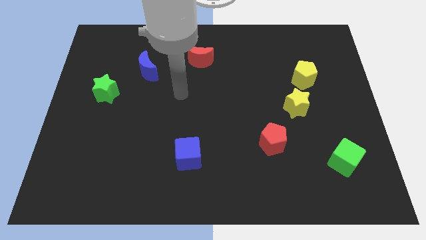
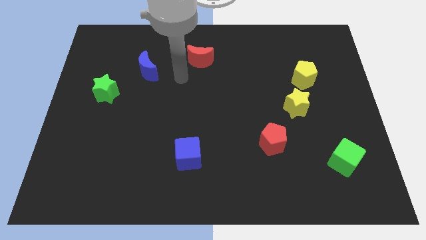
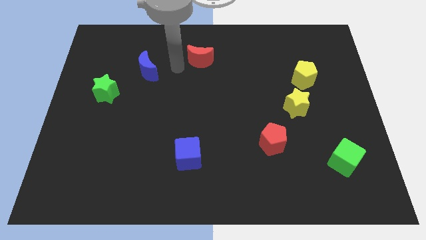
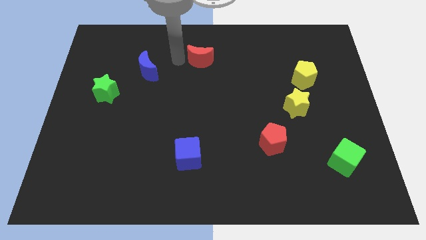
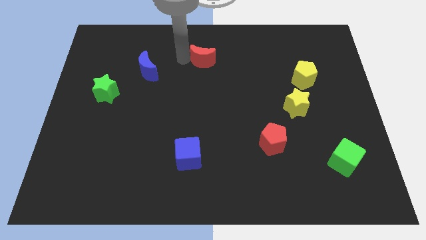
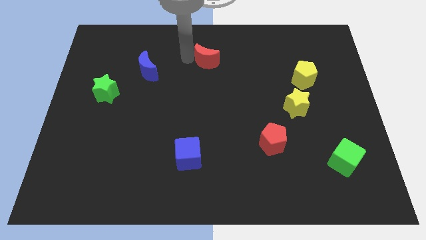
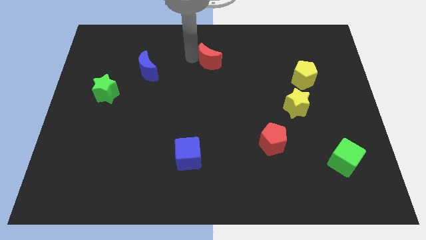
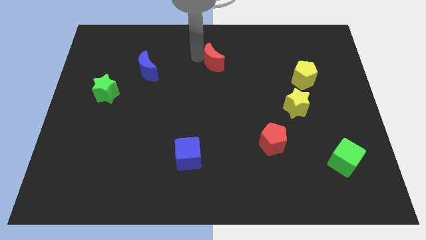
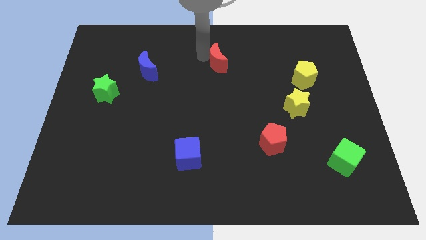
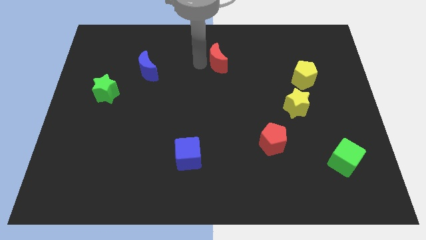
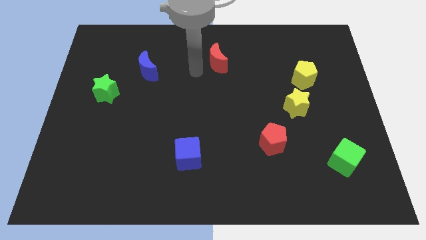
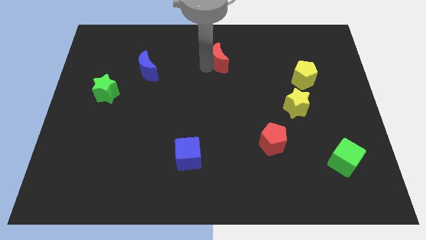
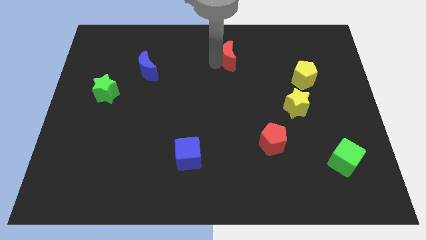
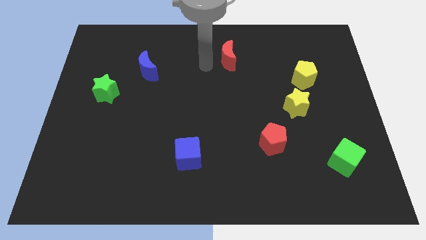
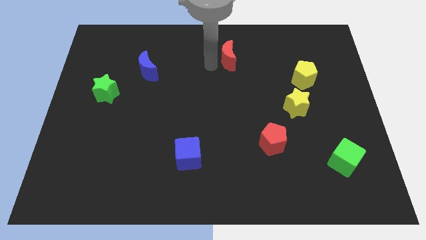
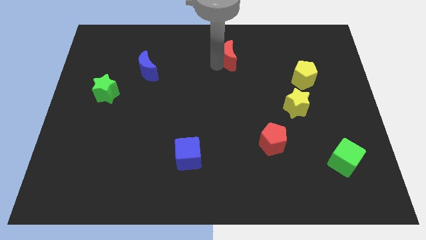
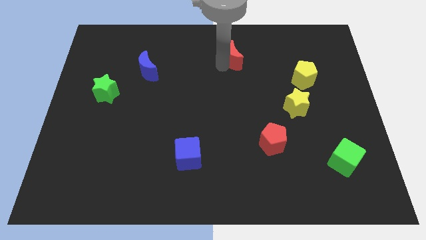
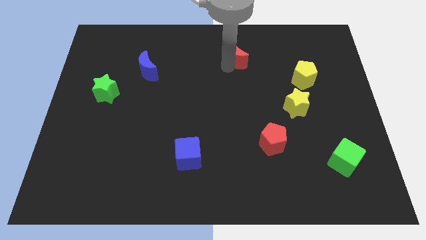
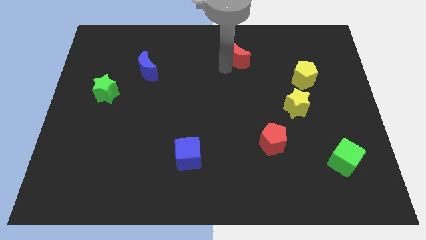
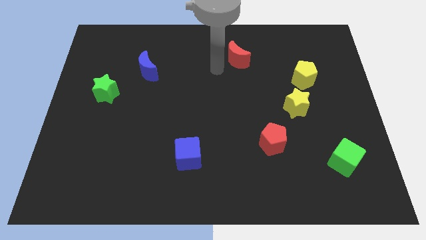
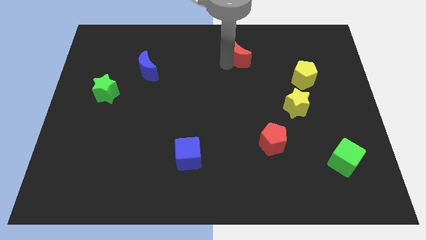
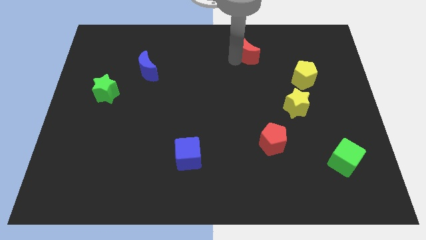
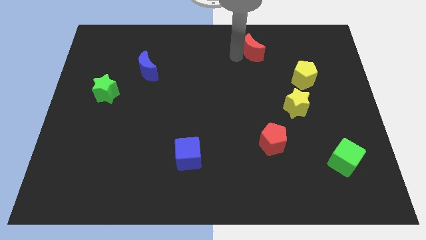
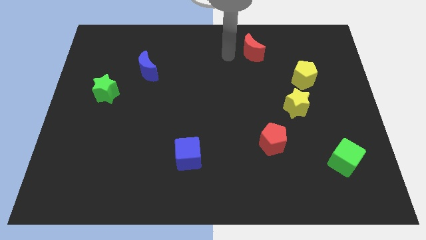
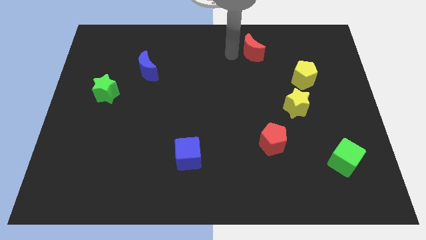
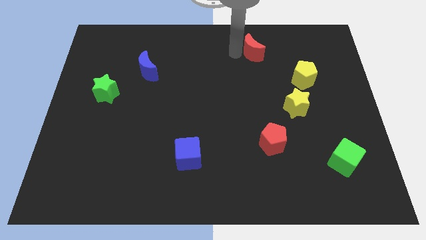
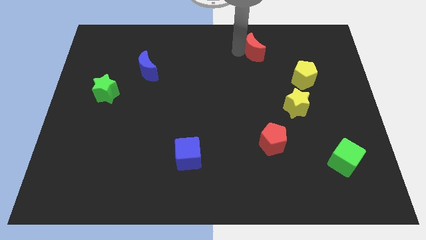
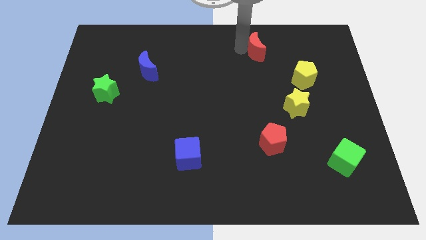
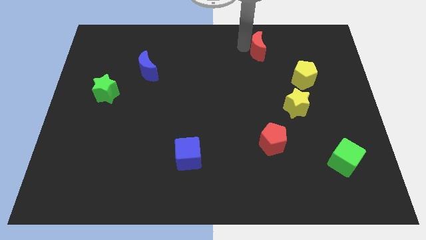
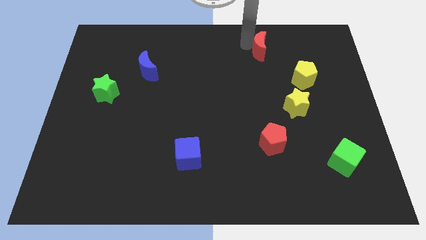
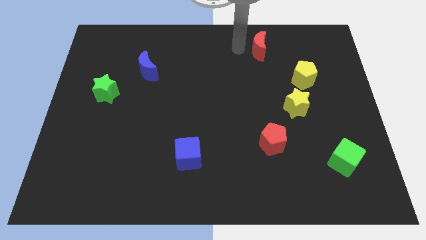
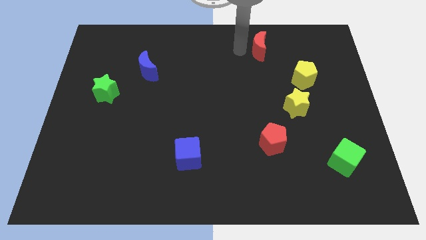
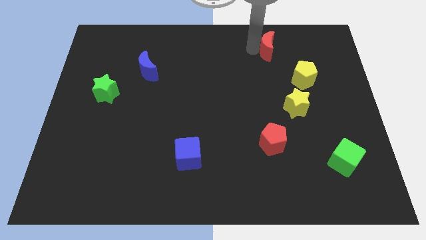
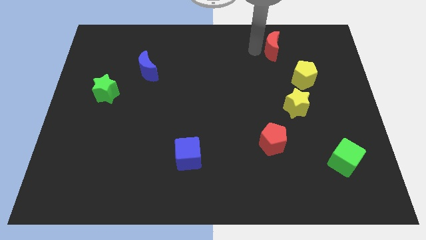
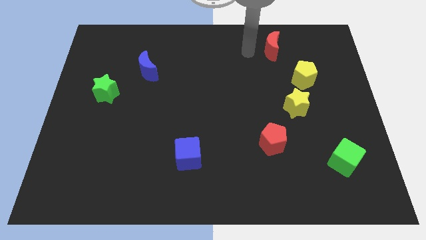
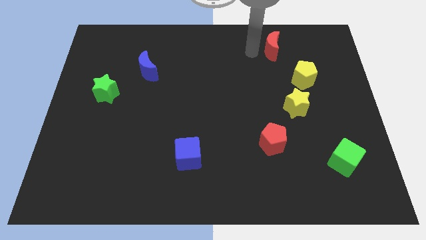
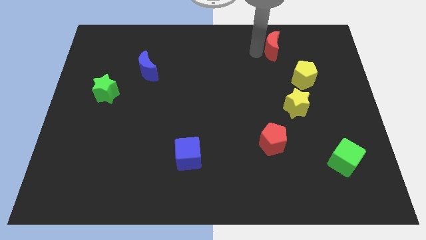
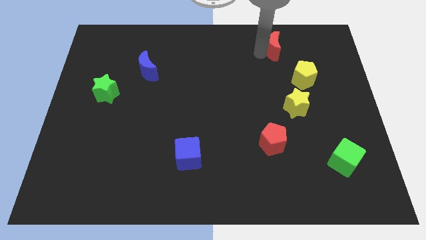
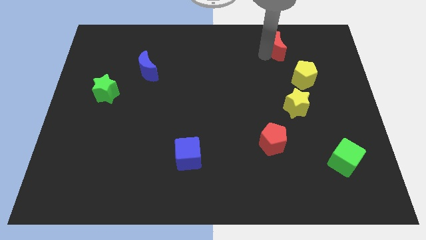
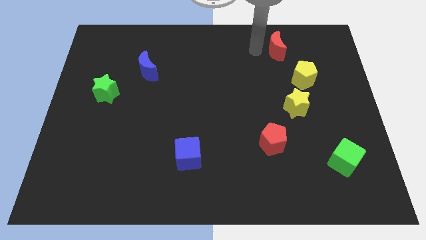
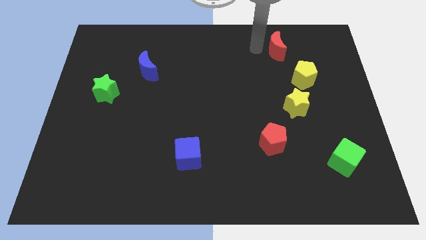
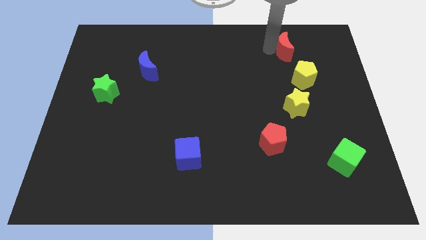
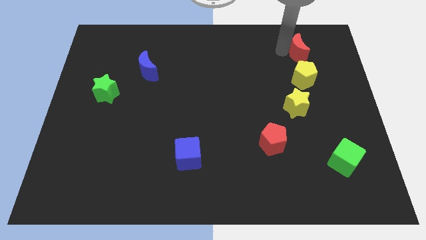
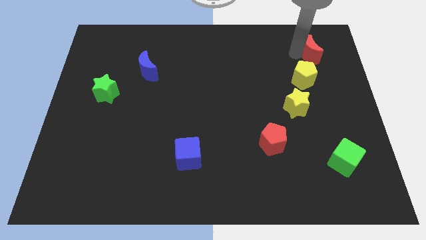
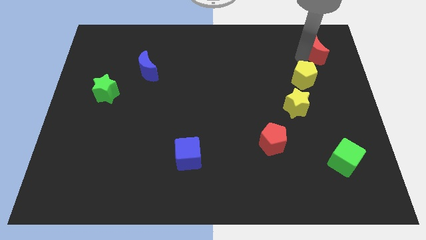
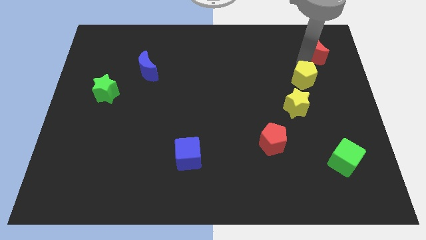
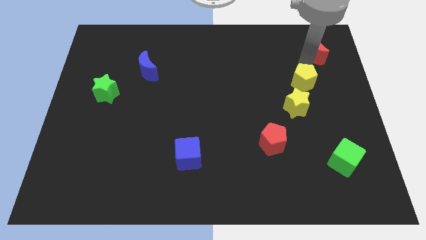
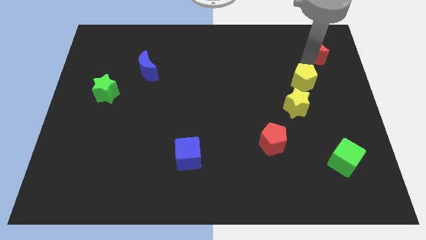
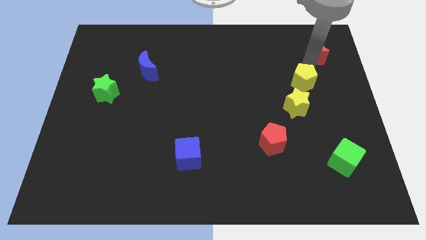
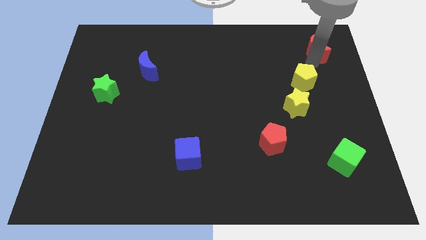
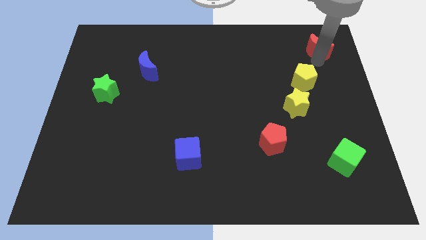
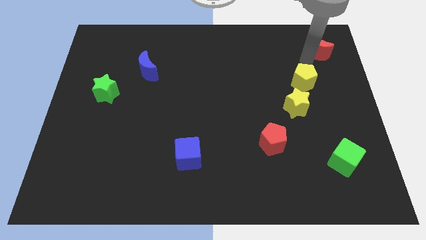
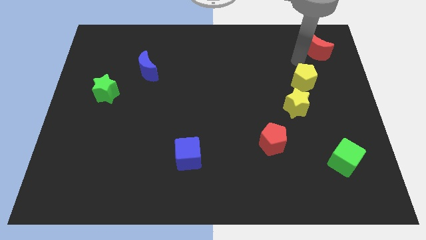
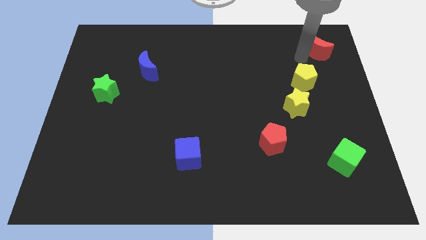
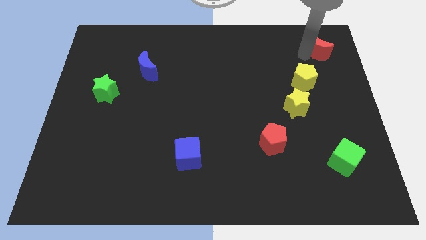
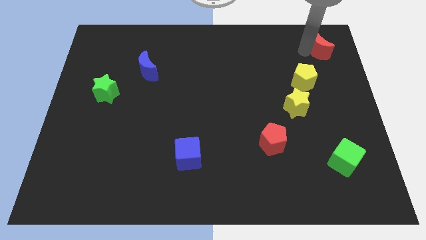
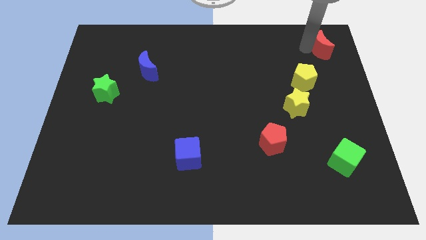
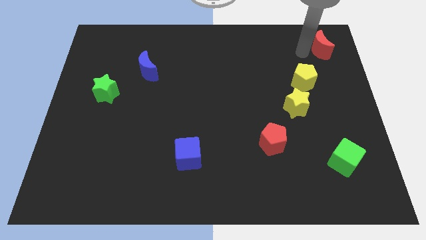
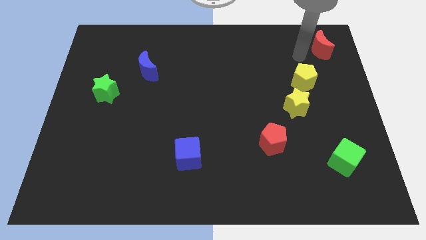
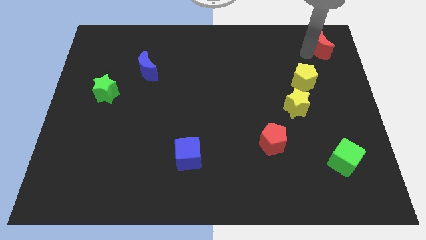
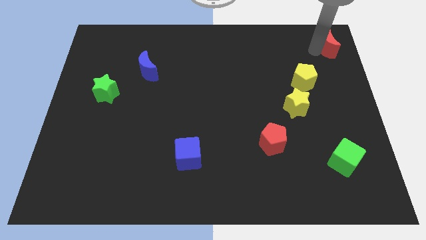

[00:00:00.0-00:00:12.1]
slide the red moon to the top right of the board

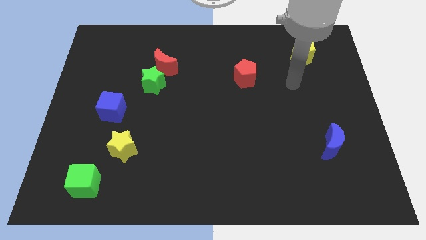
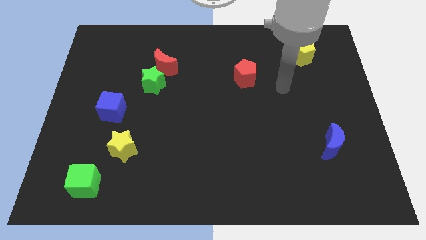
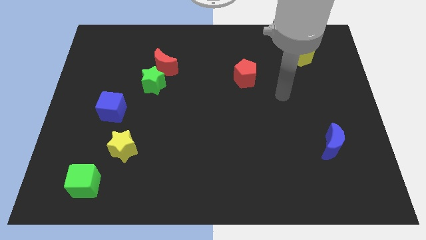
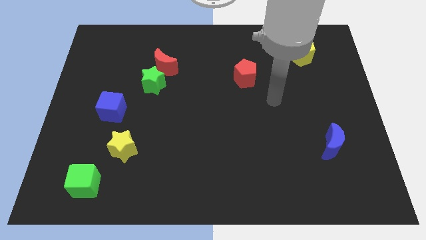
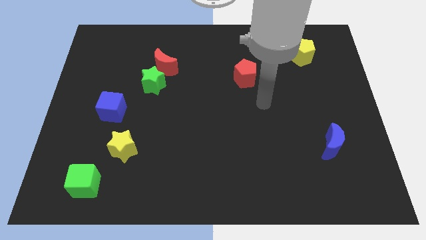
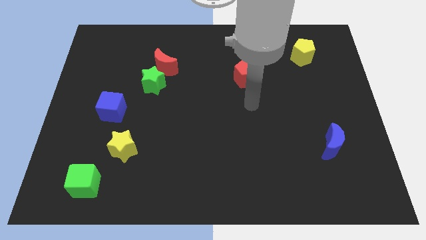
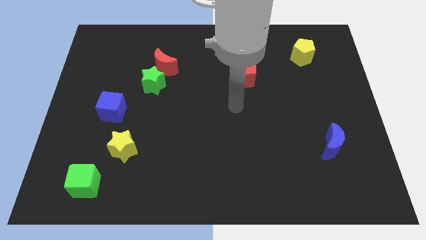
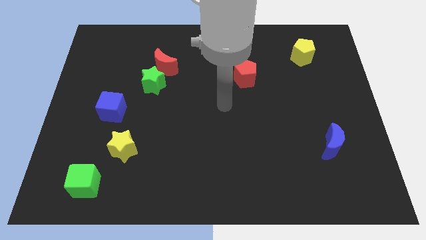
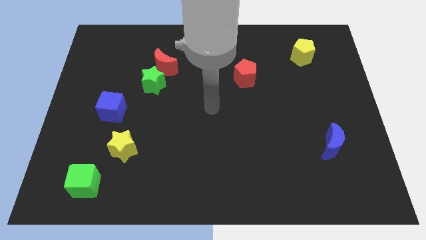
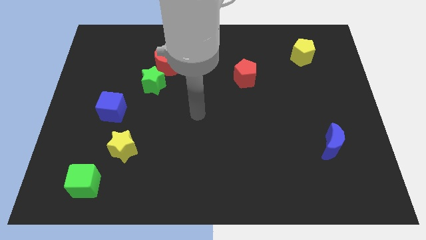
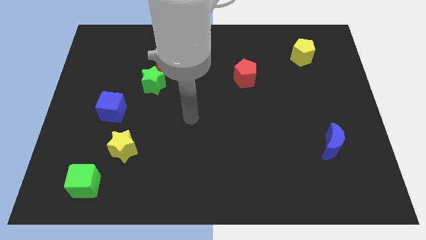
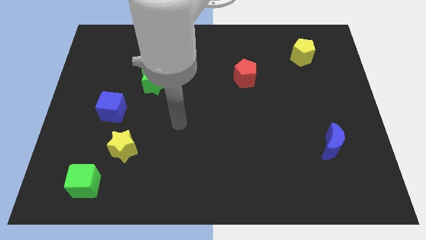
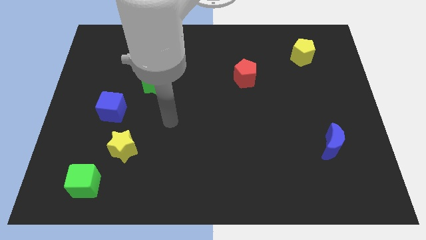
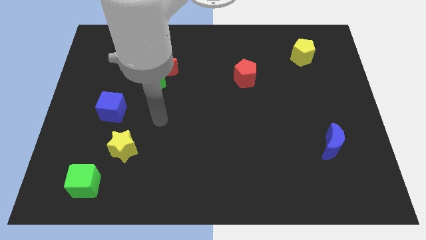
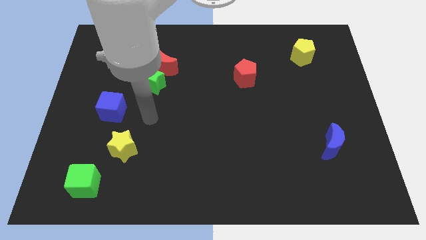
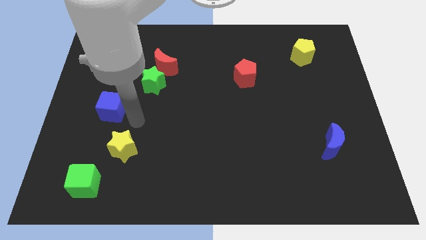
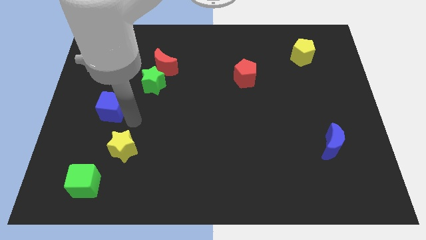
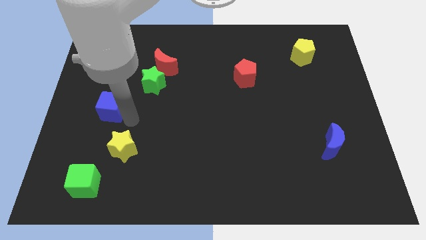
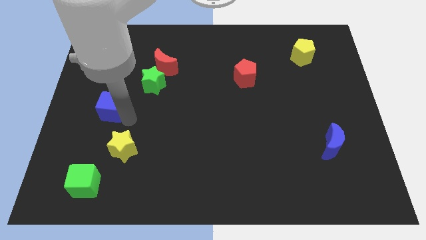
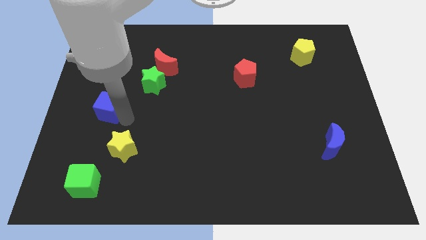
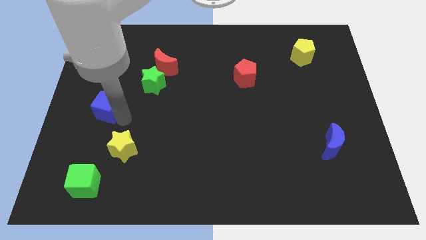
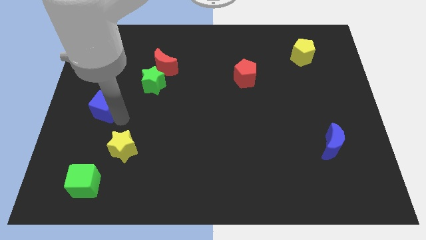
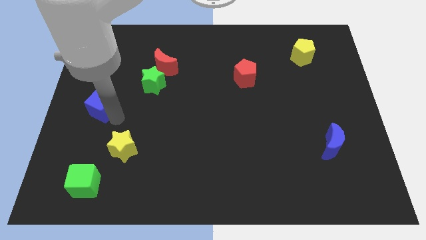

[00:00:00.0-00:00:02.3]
put the blue cube to the center left
